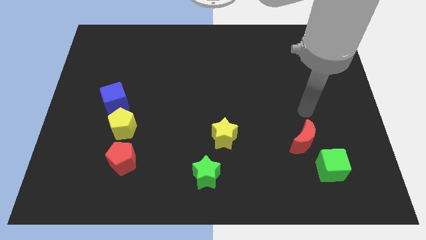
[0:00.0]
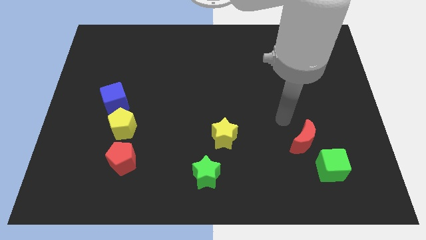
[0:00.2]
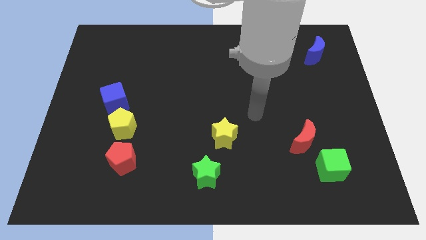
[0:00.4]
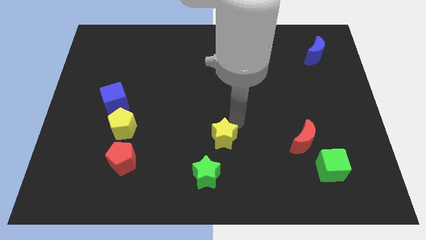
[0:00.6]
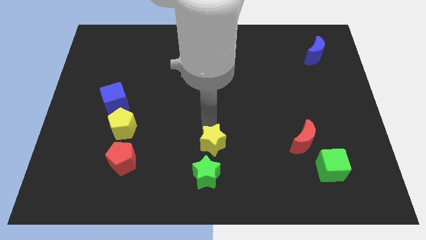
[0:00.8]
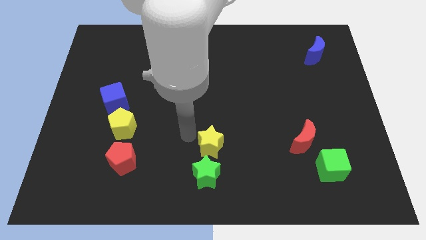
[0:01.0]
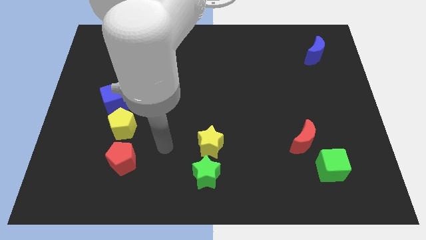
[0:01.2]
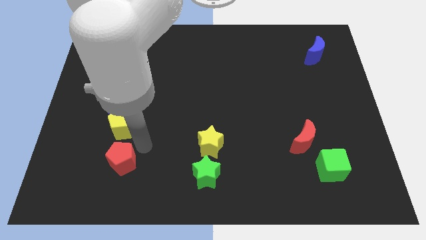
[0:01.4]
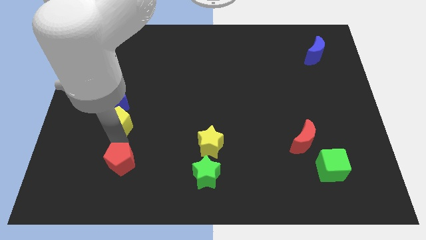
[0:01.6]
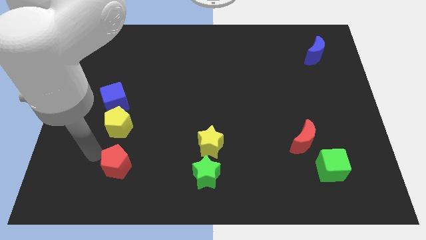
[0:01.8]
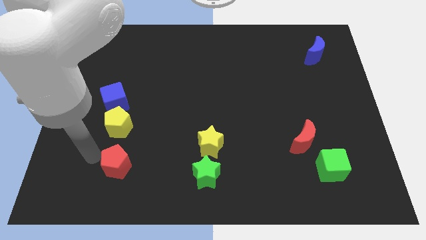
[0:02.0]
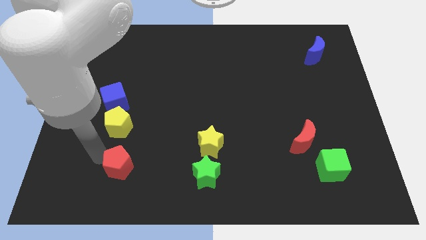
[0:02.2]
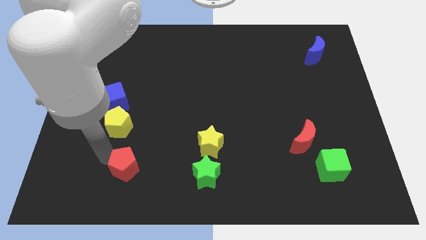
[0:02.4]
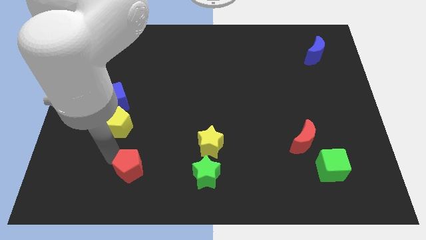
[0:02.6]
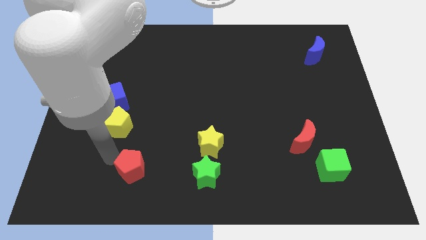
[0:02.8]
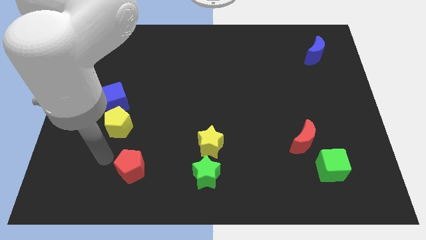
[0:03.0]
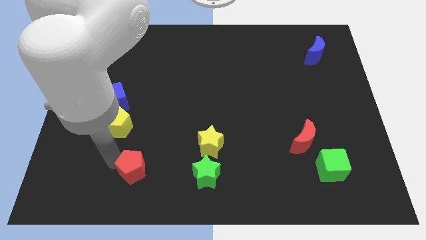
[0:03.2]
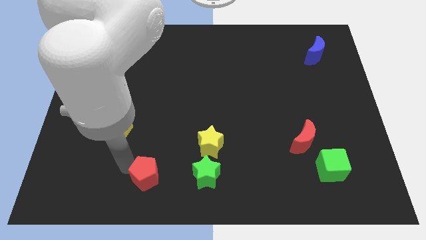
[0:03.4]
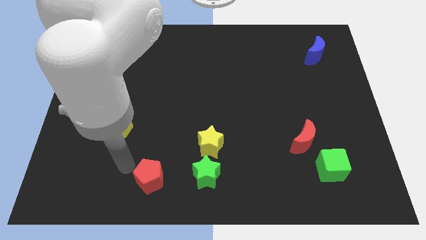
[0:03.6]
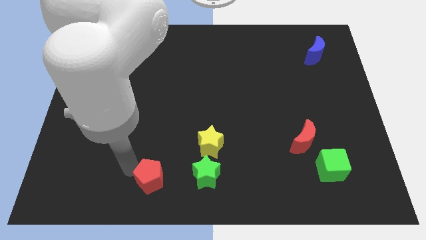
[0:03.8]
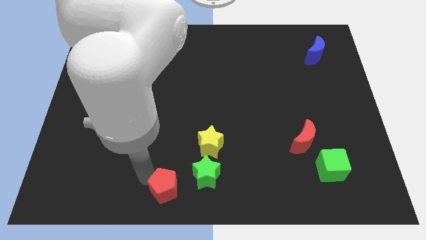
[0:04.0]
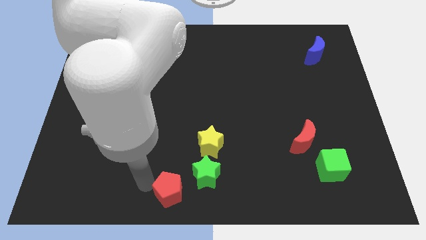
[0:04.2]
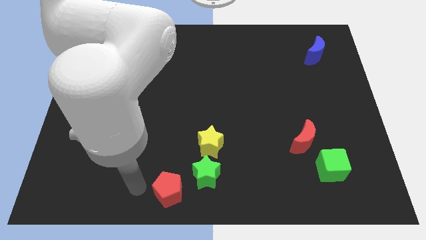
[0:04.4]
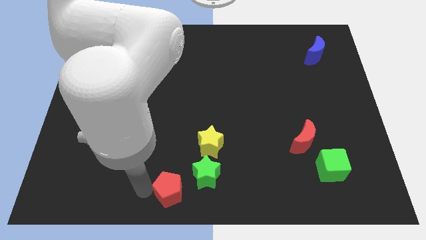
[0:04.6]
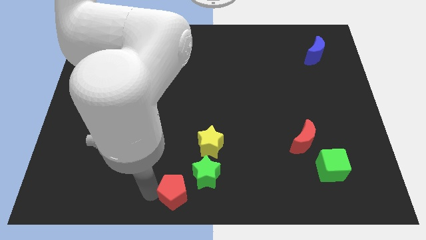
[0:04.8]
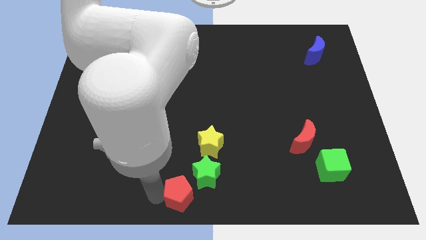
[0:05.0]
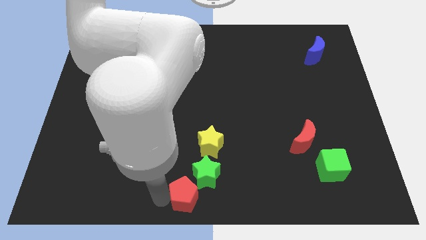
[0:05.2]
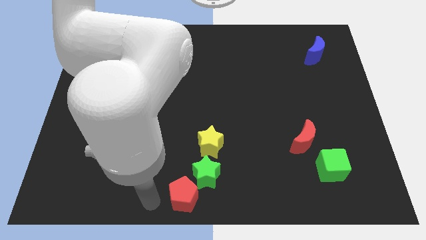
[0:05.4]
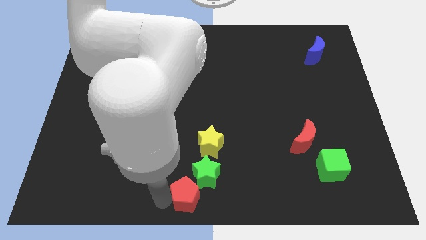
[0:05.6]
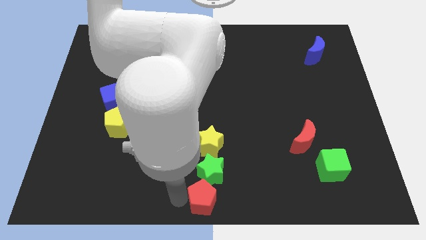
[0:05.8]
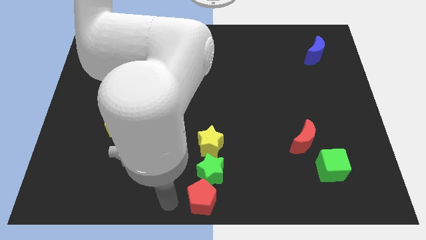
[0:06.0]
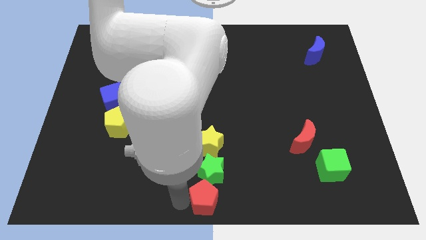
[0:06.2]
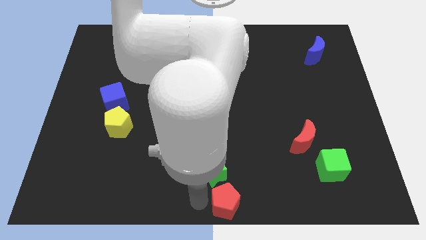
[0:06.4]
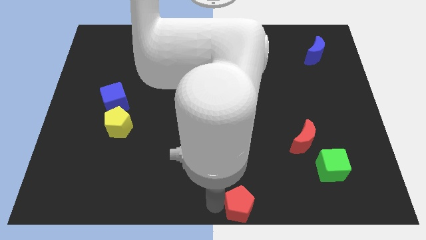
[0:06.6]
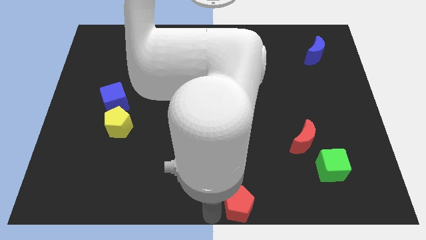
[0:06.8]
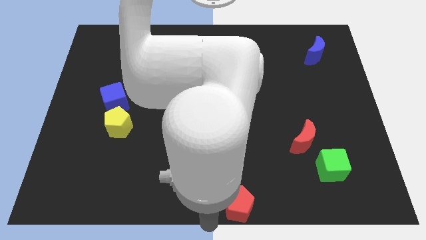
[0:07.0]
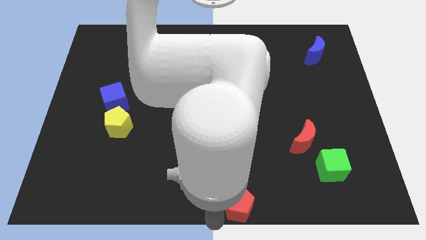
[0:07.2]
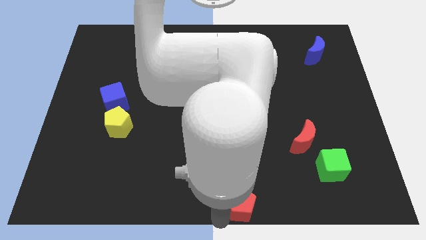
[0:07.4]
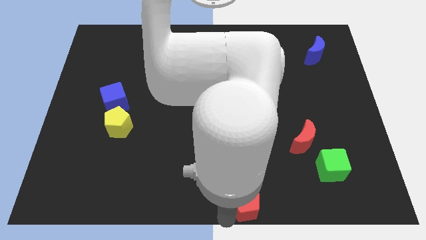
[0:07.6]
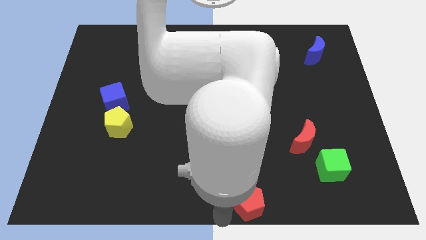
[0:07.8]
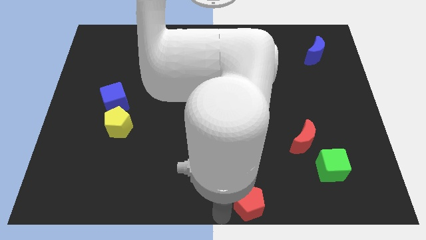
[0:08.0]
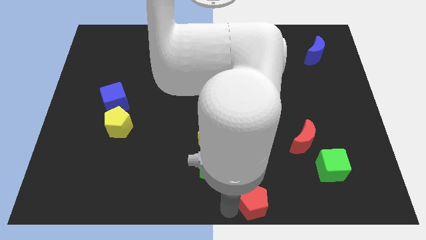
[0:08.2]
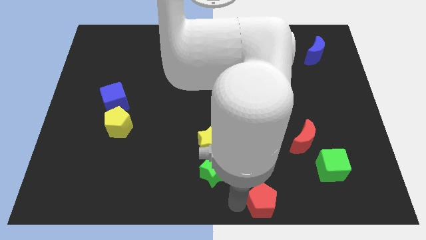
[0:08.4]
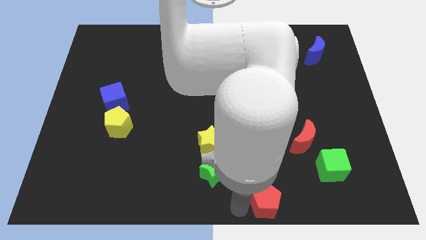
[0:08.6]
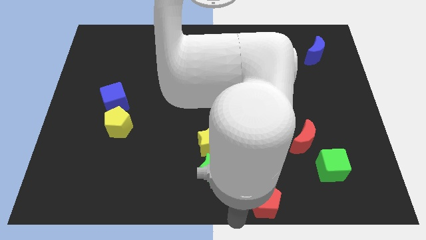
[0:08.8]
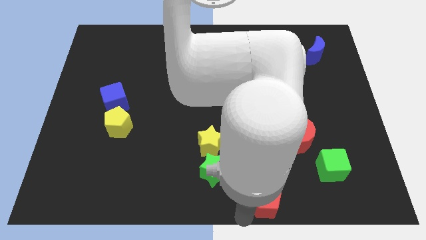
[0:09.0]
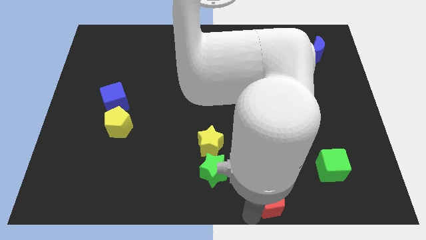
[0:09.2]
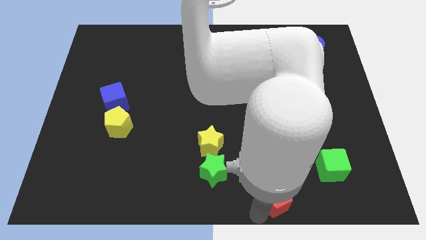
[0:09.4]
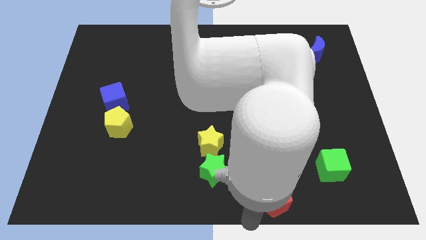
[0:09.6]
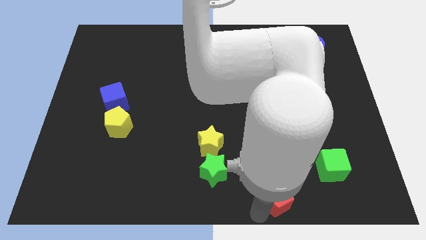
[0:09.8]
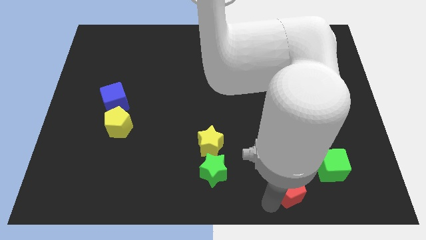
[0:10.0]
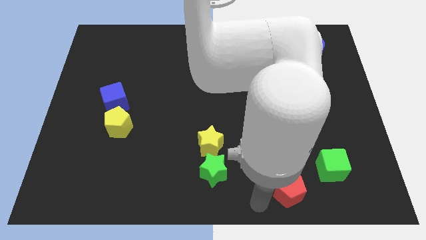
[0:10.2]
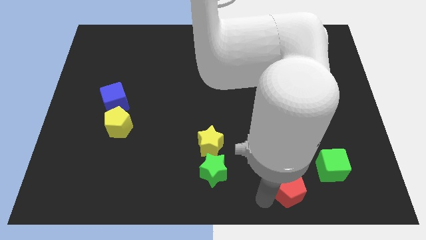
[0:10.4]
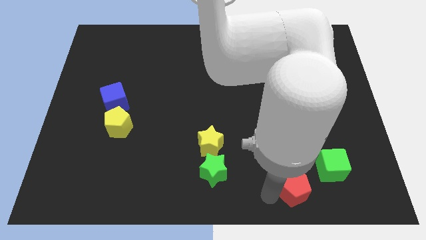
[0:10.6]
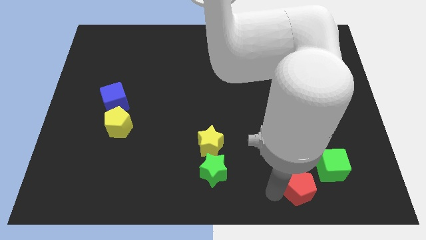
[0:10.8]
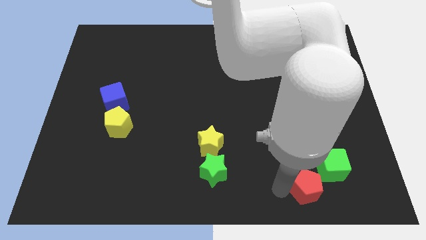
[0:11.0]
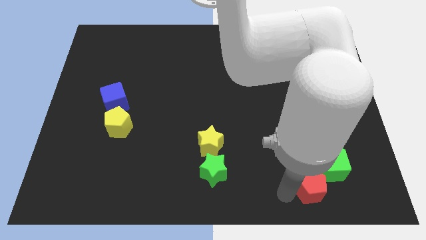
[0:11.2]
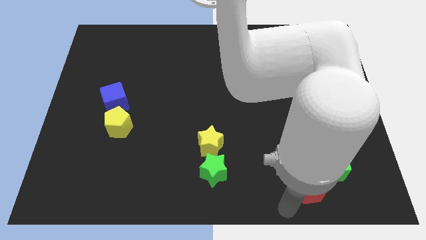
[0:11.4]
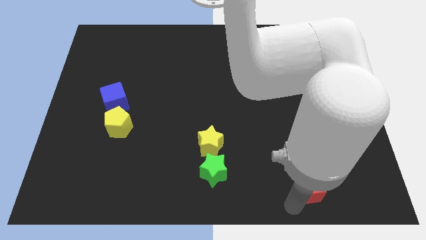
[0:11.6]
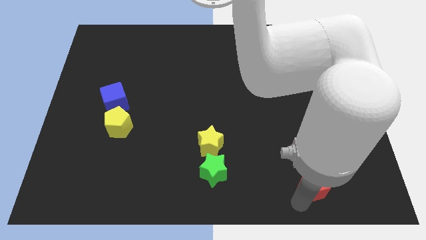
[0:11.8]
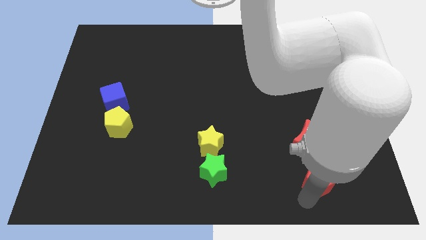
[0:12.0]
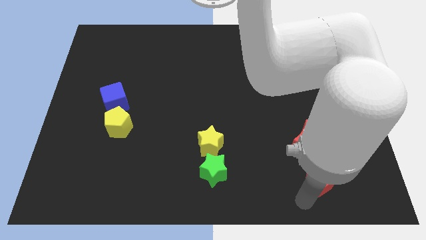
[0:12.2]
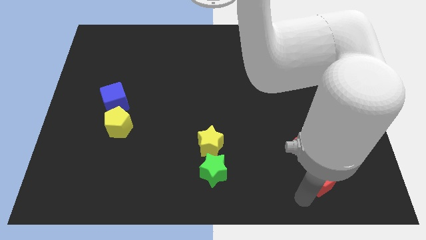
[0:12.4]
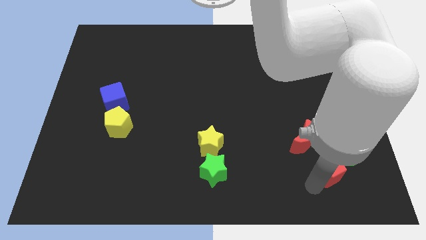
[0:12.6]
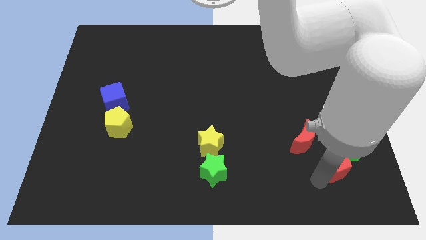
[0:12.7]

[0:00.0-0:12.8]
move the red pentagon close to the green cube

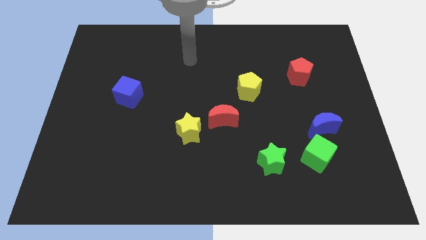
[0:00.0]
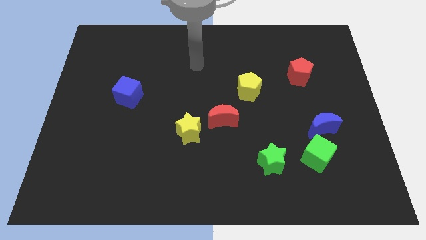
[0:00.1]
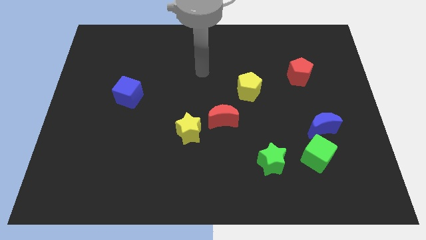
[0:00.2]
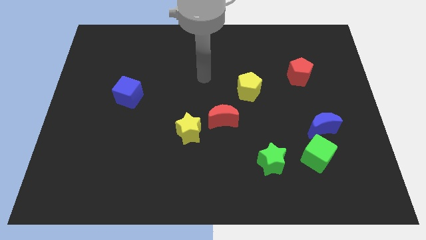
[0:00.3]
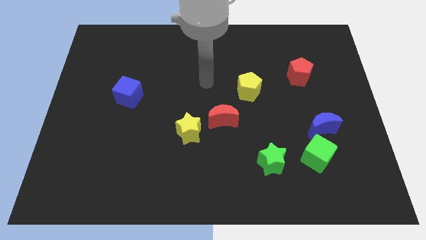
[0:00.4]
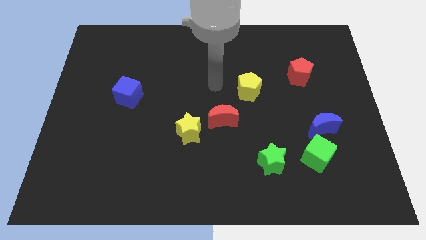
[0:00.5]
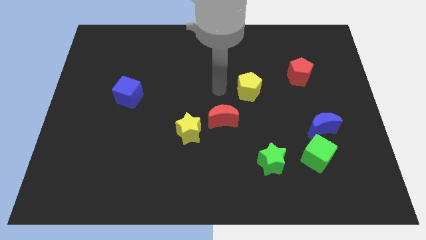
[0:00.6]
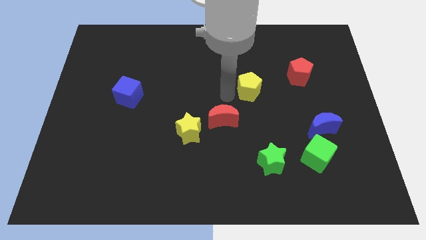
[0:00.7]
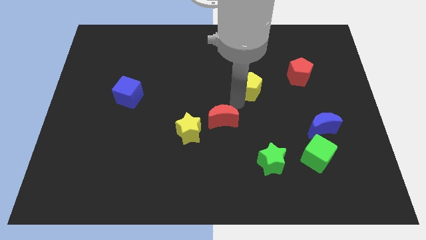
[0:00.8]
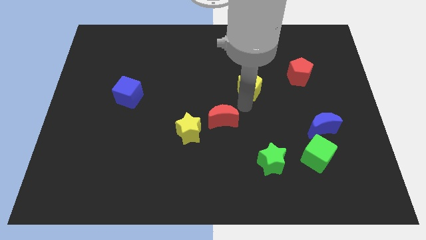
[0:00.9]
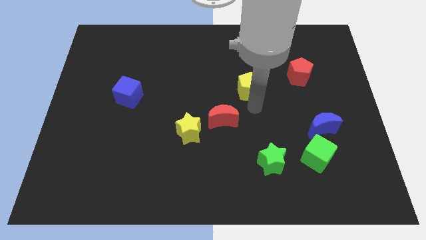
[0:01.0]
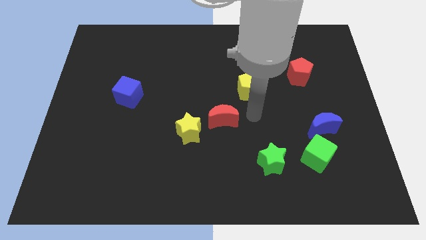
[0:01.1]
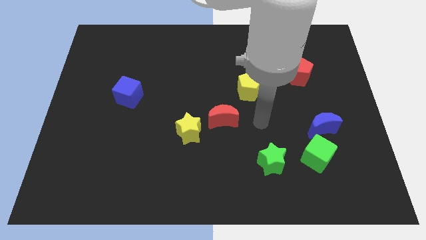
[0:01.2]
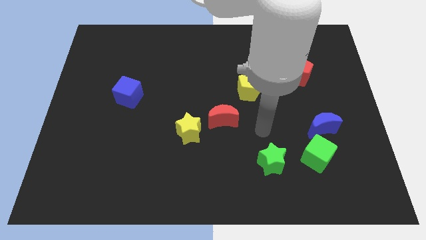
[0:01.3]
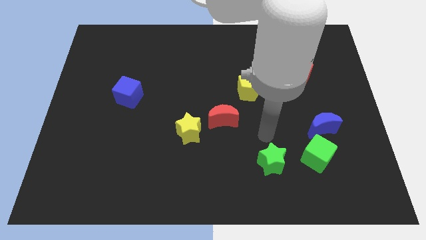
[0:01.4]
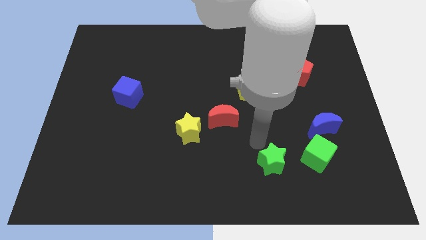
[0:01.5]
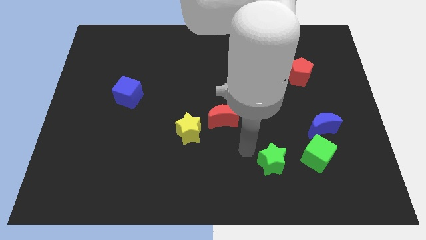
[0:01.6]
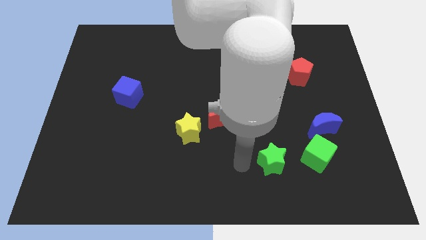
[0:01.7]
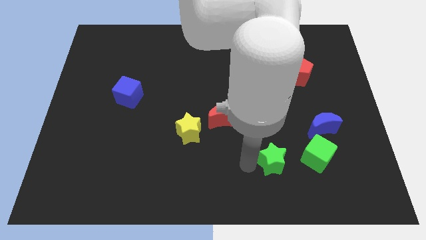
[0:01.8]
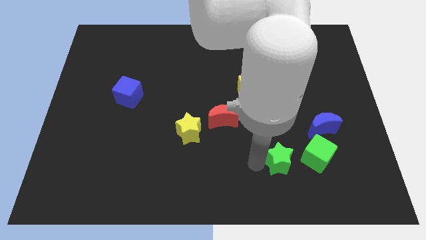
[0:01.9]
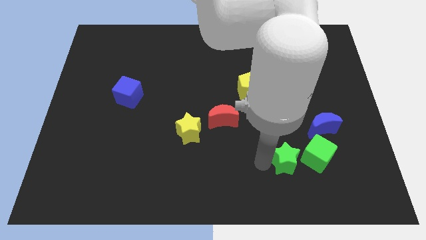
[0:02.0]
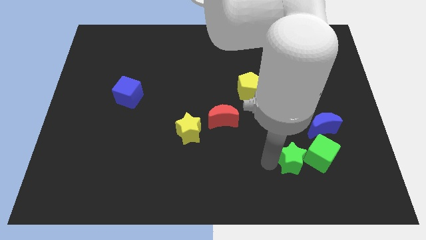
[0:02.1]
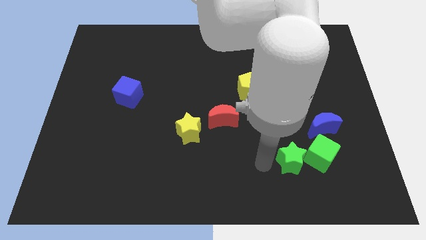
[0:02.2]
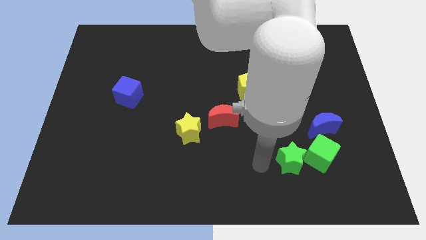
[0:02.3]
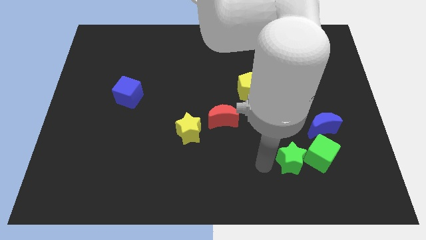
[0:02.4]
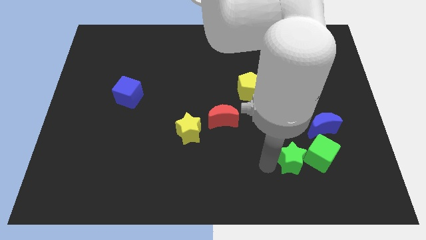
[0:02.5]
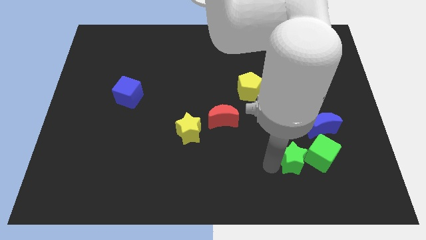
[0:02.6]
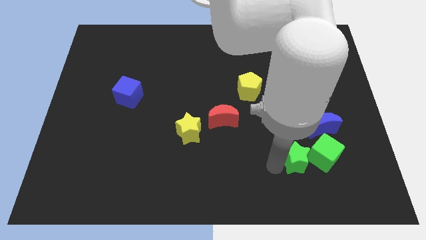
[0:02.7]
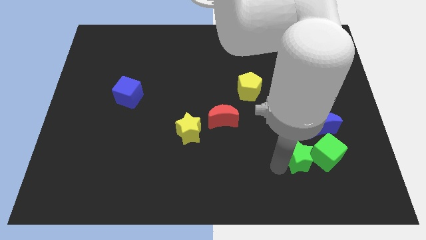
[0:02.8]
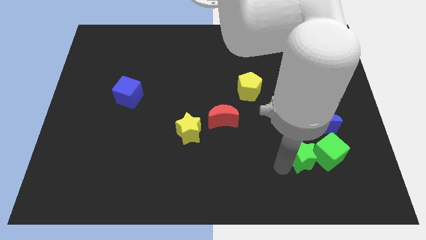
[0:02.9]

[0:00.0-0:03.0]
put the green star to the green cube
